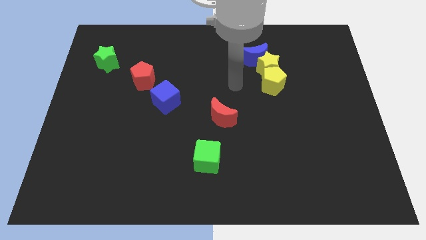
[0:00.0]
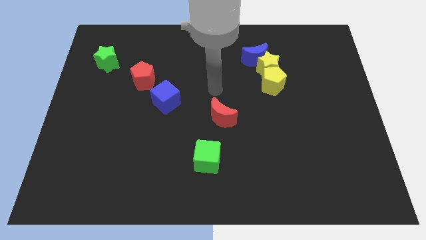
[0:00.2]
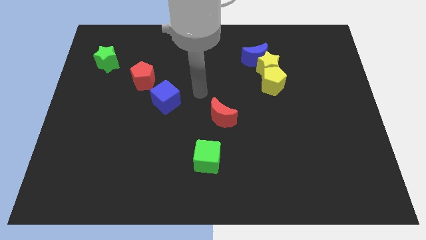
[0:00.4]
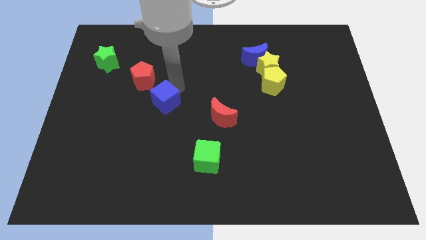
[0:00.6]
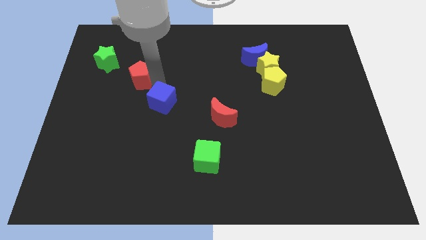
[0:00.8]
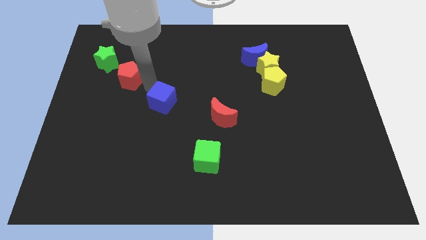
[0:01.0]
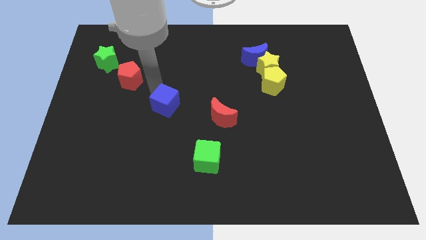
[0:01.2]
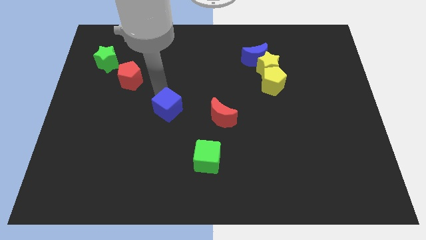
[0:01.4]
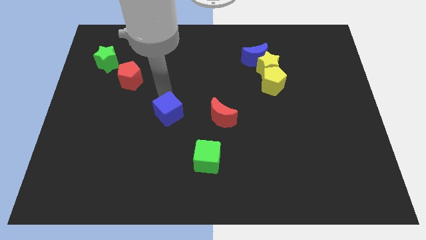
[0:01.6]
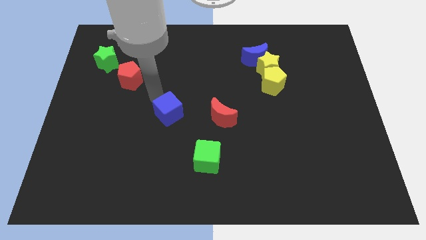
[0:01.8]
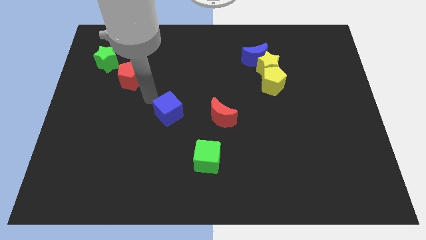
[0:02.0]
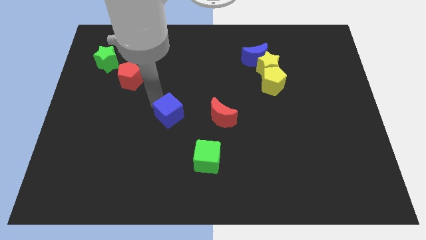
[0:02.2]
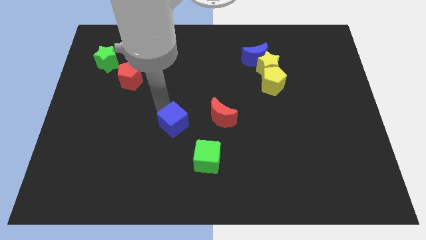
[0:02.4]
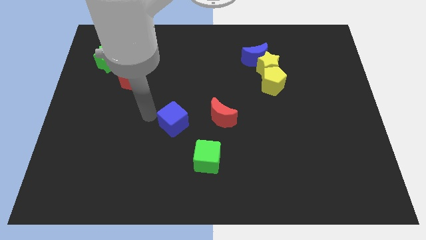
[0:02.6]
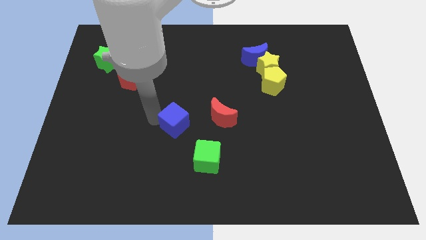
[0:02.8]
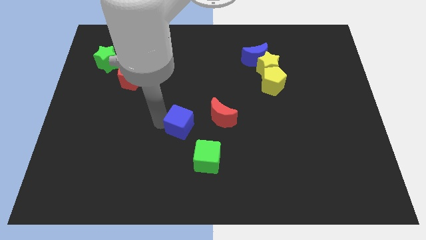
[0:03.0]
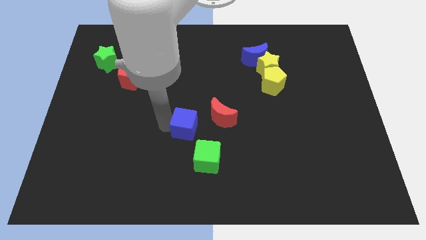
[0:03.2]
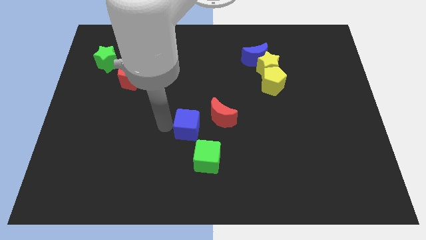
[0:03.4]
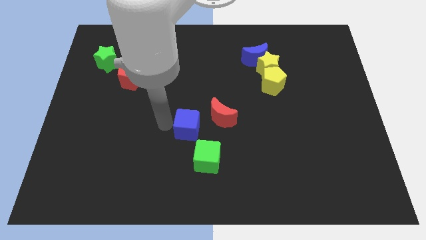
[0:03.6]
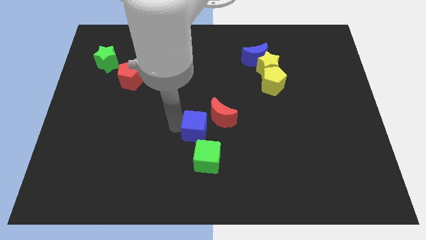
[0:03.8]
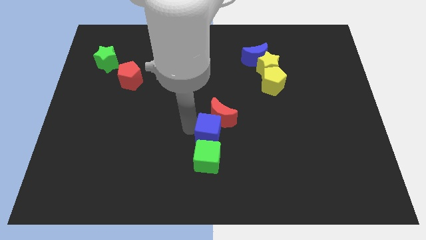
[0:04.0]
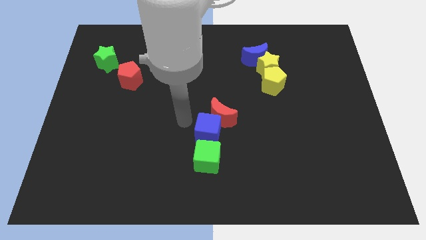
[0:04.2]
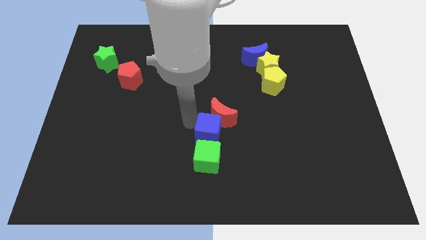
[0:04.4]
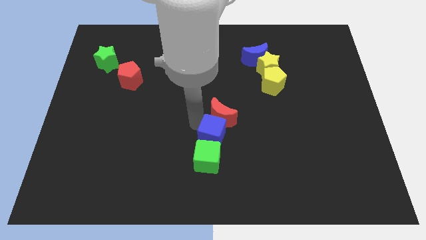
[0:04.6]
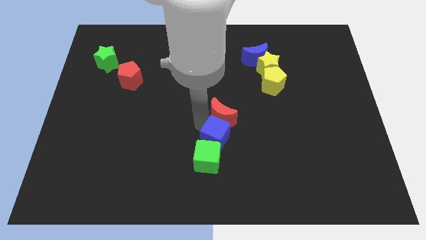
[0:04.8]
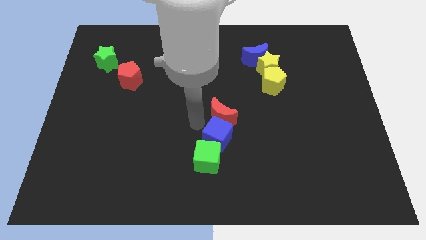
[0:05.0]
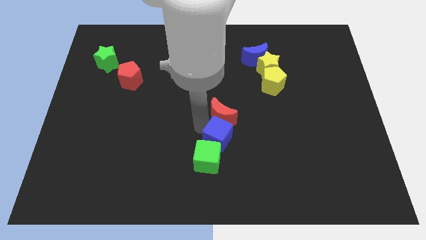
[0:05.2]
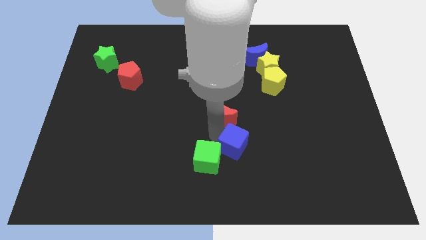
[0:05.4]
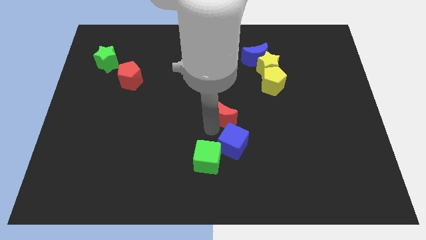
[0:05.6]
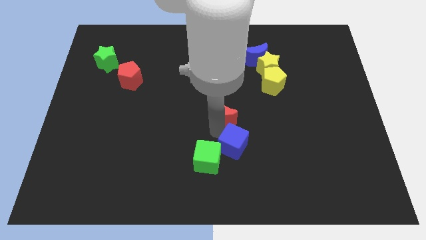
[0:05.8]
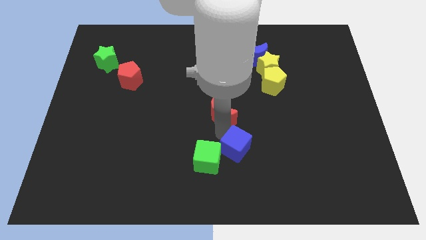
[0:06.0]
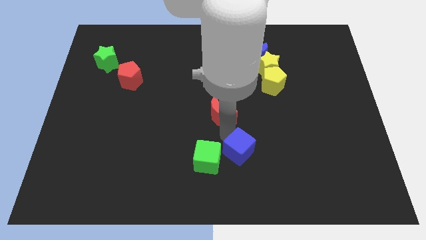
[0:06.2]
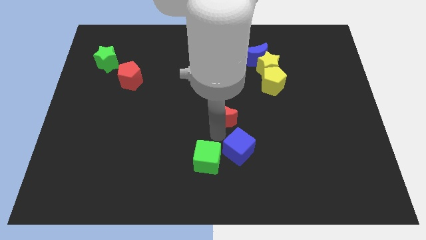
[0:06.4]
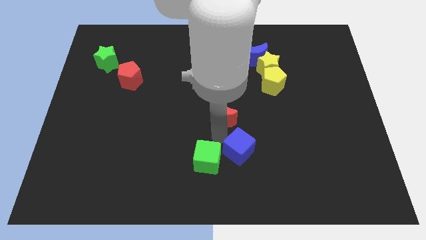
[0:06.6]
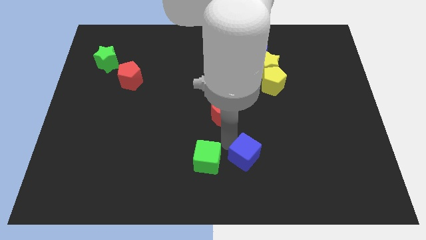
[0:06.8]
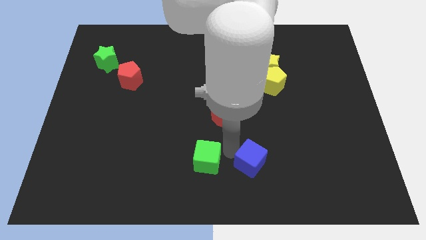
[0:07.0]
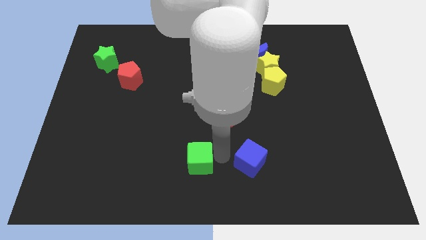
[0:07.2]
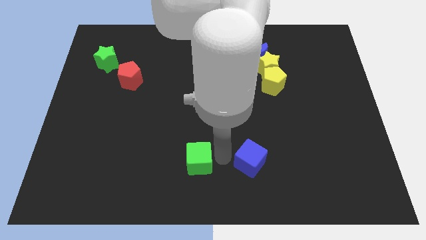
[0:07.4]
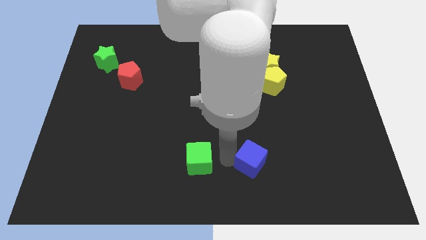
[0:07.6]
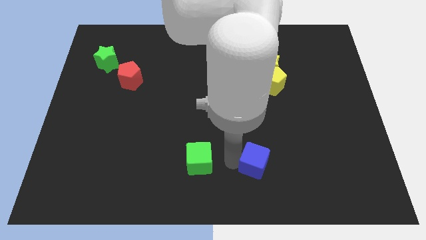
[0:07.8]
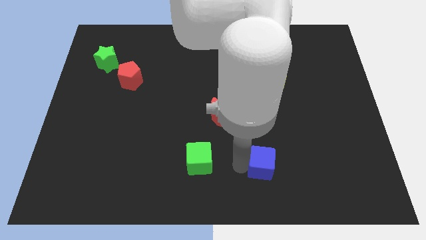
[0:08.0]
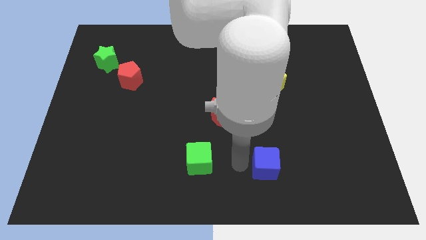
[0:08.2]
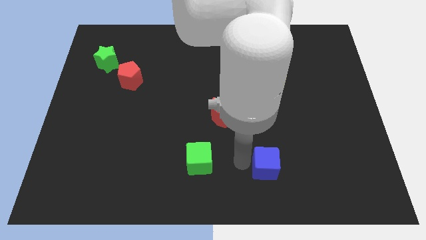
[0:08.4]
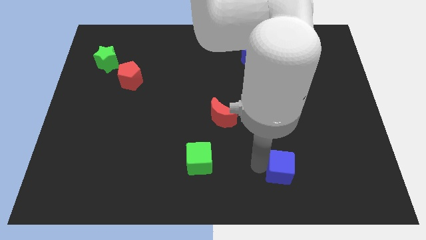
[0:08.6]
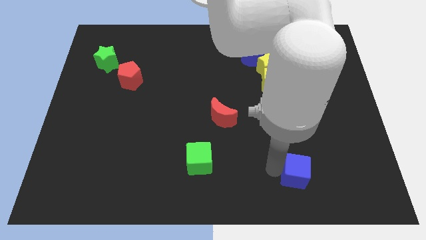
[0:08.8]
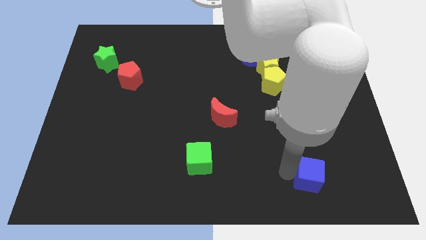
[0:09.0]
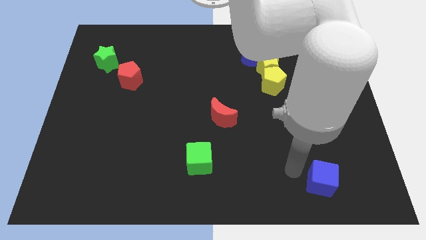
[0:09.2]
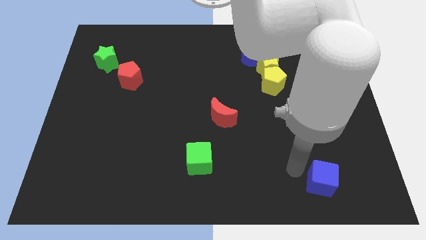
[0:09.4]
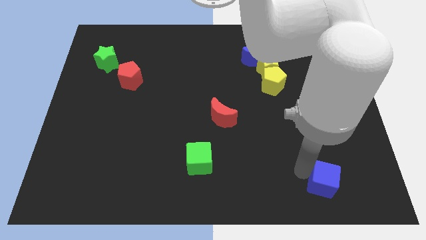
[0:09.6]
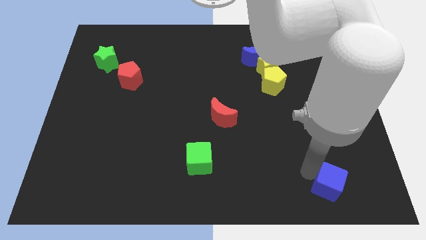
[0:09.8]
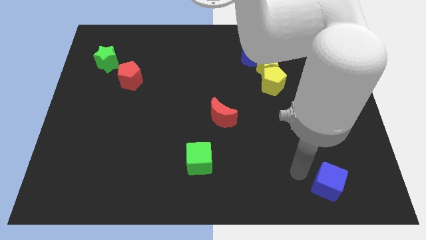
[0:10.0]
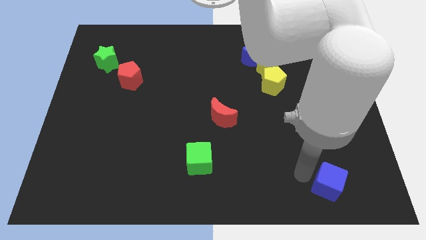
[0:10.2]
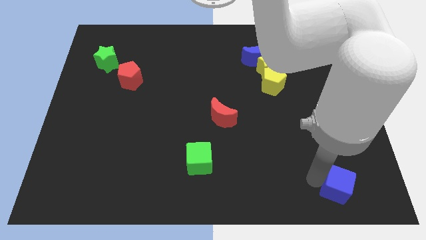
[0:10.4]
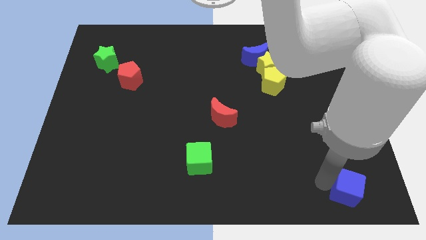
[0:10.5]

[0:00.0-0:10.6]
push the blue cube to the bottom right

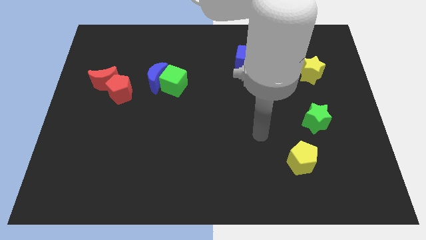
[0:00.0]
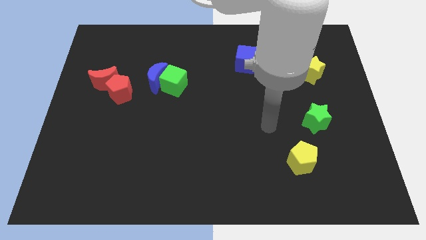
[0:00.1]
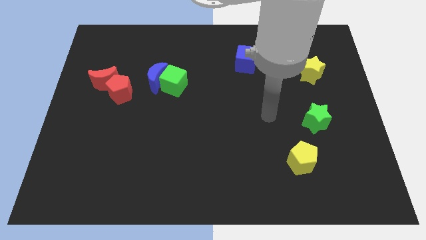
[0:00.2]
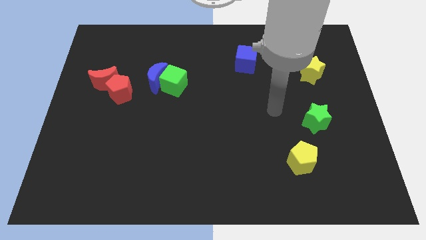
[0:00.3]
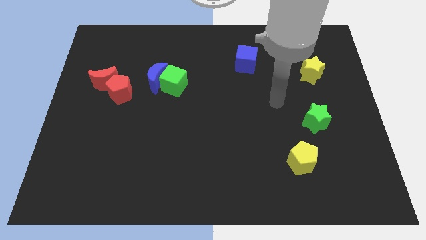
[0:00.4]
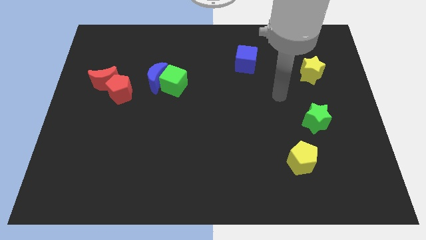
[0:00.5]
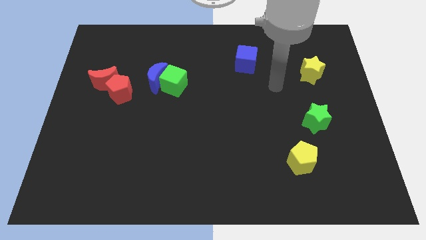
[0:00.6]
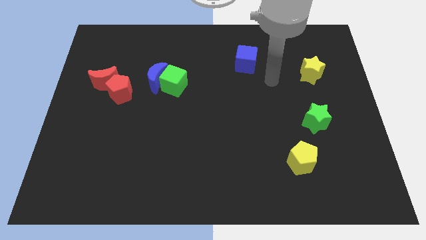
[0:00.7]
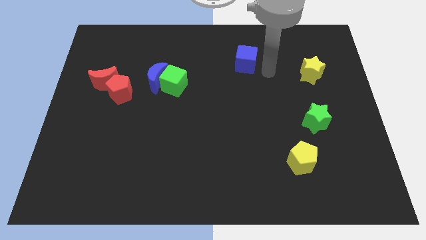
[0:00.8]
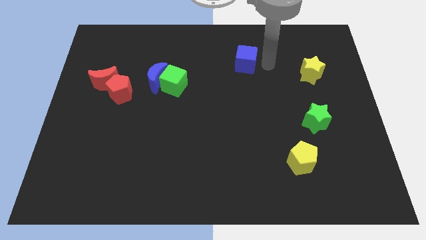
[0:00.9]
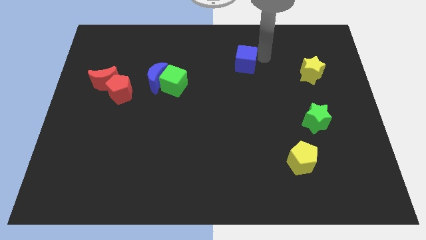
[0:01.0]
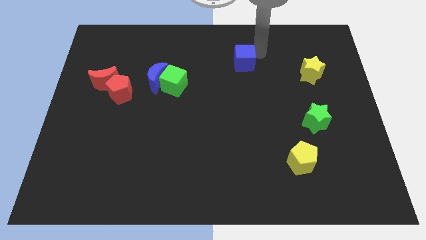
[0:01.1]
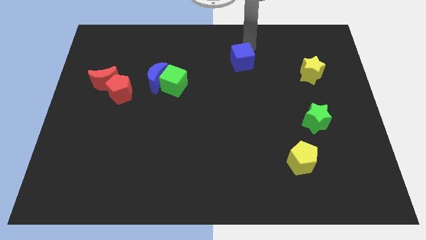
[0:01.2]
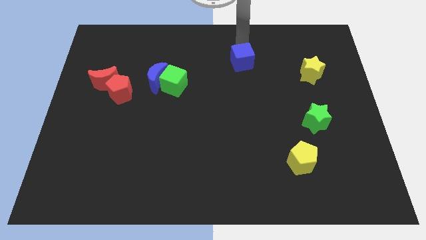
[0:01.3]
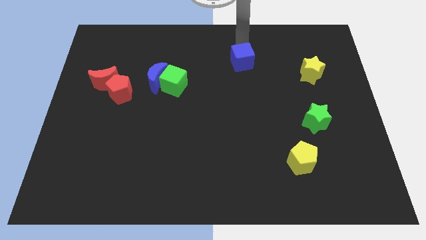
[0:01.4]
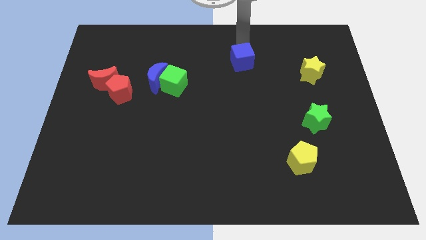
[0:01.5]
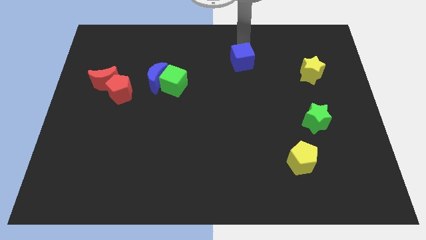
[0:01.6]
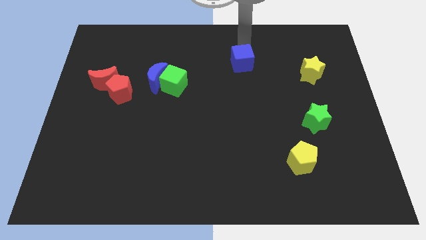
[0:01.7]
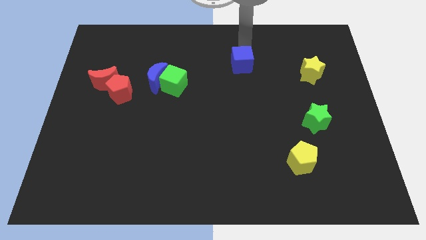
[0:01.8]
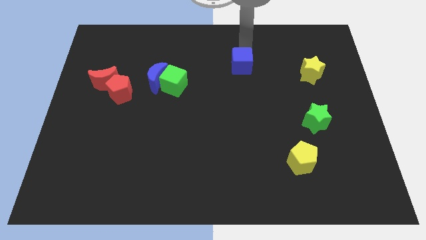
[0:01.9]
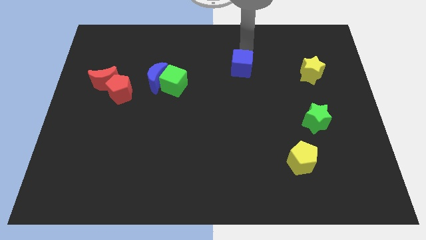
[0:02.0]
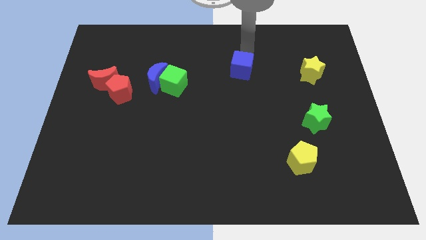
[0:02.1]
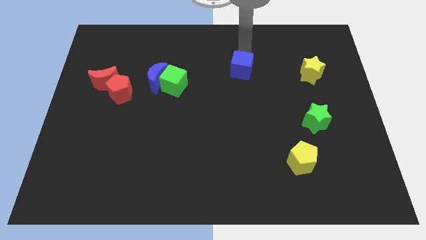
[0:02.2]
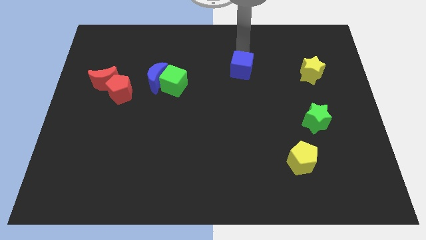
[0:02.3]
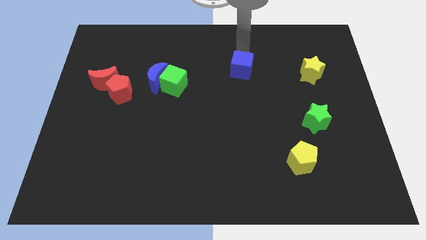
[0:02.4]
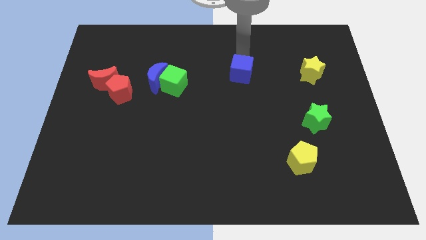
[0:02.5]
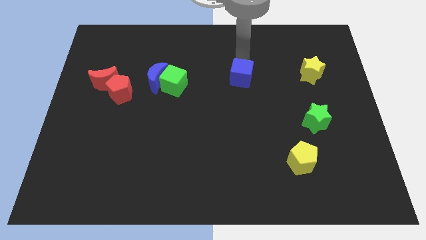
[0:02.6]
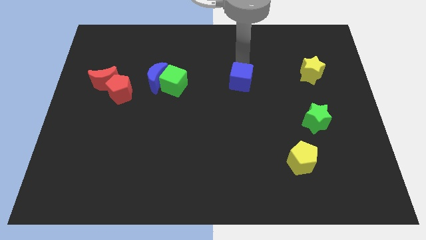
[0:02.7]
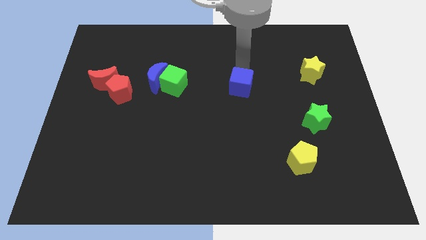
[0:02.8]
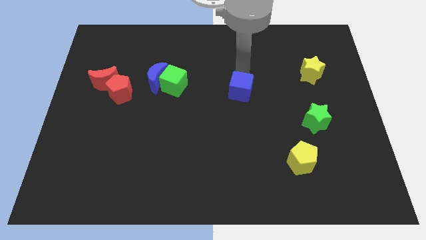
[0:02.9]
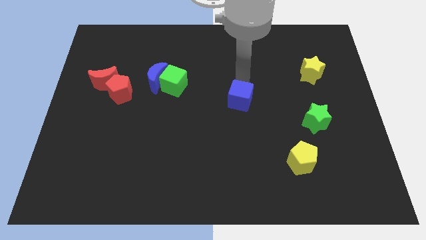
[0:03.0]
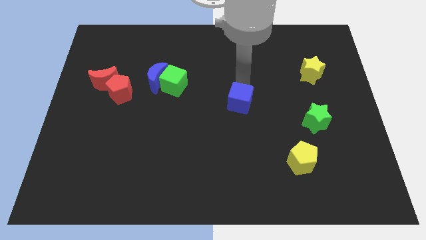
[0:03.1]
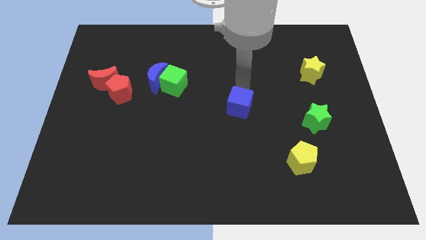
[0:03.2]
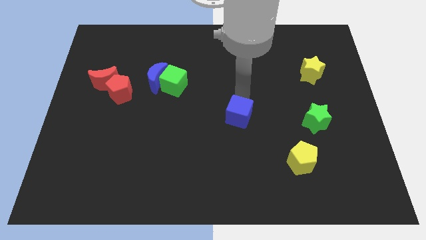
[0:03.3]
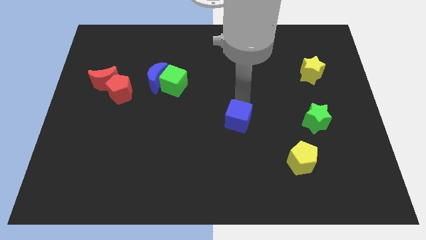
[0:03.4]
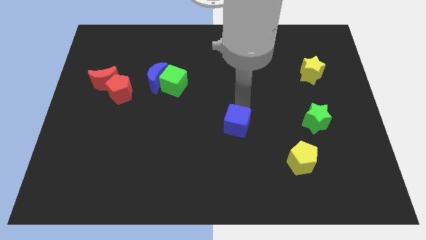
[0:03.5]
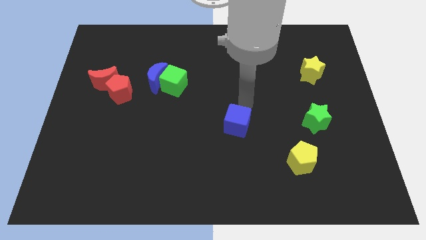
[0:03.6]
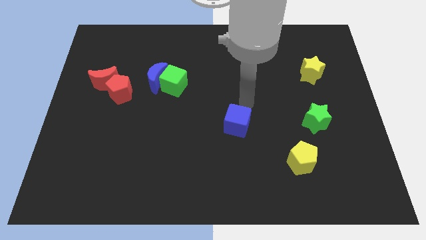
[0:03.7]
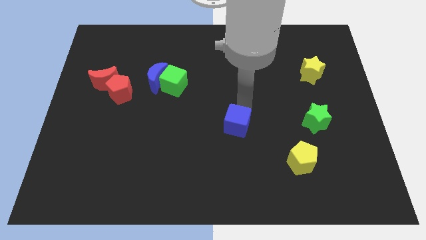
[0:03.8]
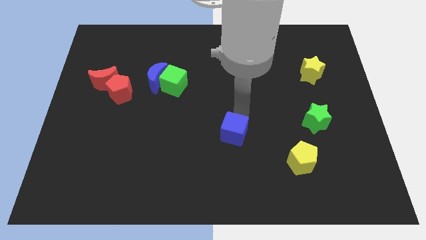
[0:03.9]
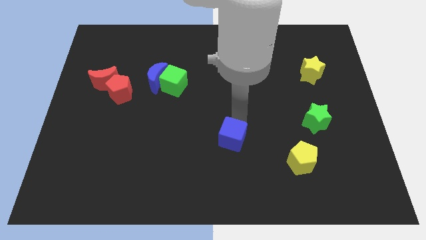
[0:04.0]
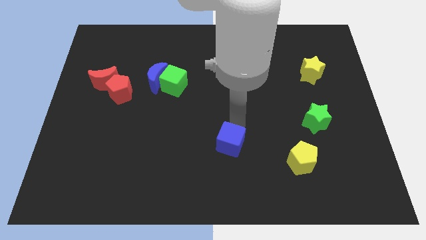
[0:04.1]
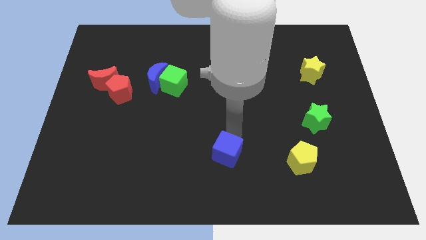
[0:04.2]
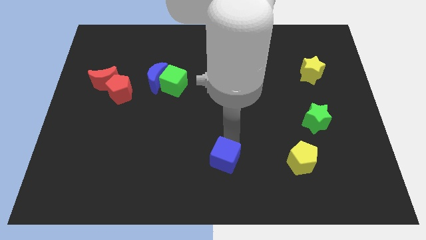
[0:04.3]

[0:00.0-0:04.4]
move the blue cube to the bottom side
